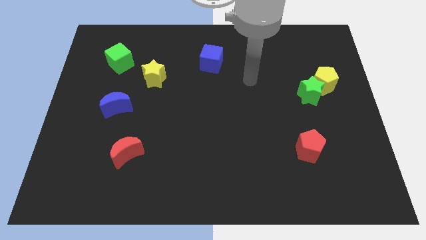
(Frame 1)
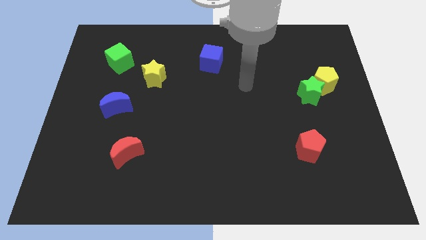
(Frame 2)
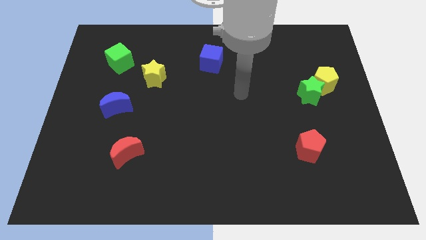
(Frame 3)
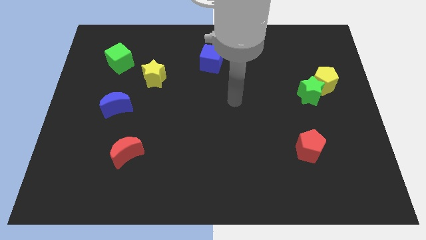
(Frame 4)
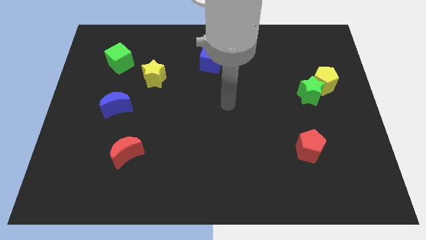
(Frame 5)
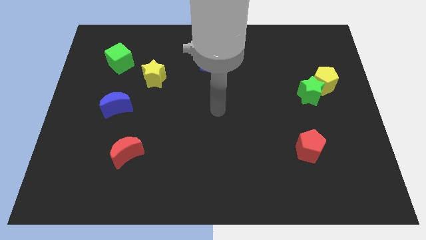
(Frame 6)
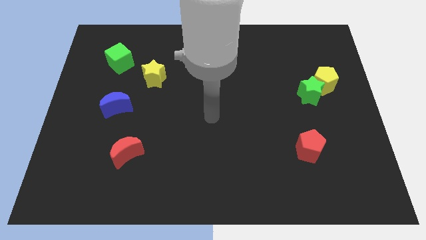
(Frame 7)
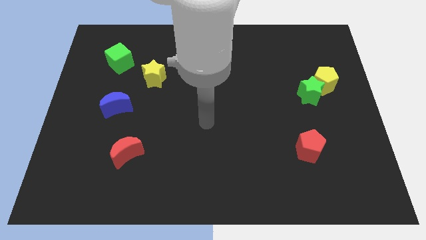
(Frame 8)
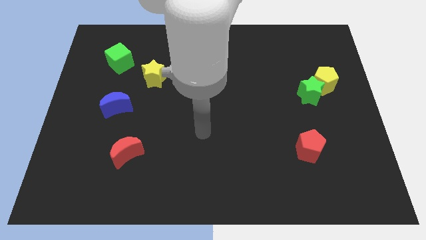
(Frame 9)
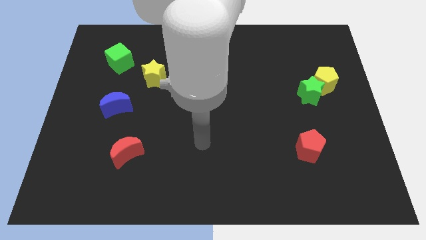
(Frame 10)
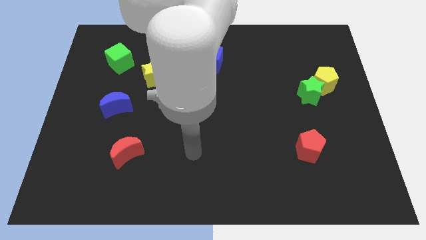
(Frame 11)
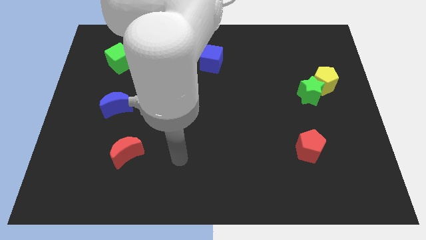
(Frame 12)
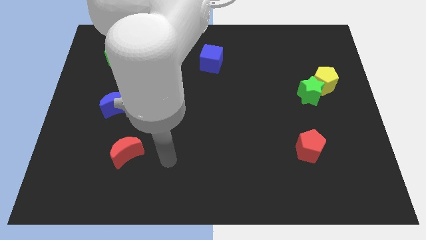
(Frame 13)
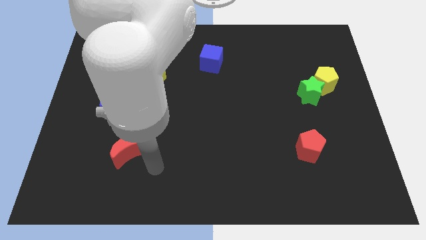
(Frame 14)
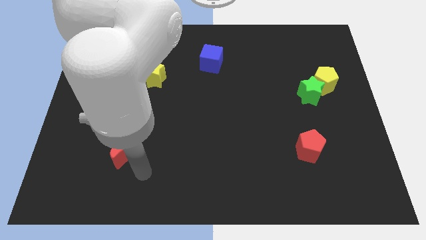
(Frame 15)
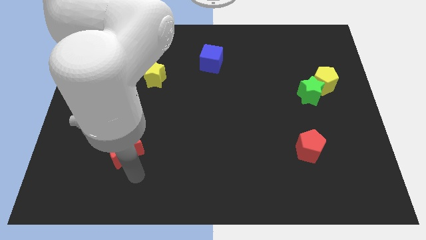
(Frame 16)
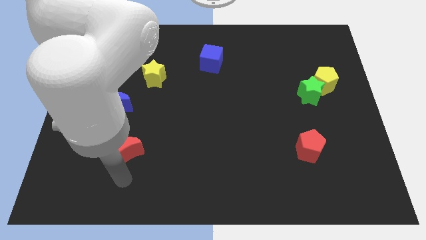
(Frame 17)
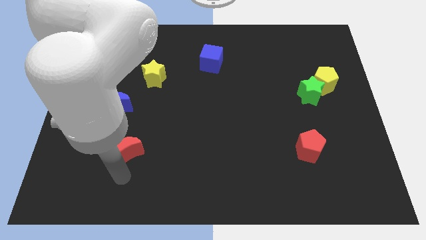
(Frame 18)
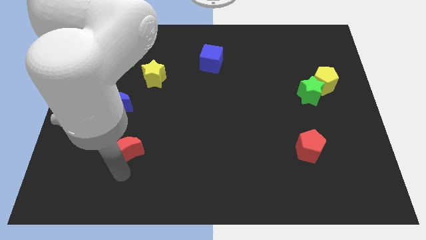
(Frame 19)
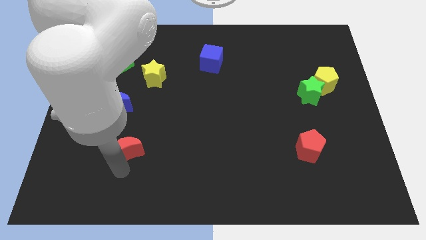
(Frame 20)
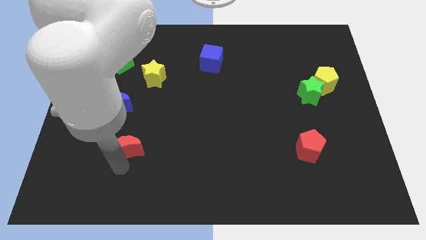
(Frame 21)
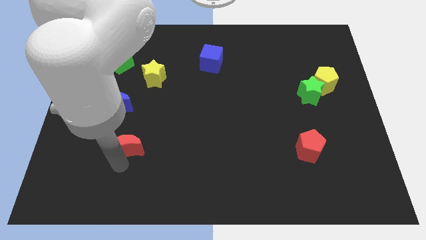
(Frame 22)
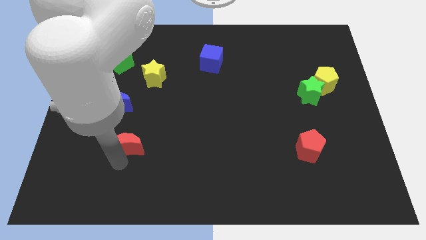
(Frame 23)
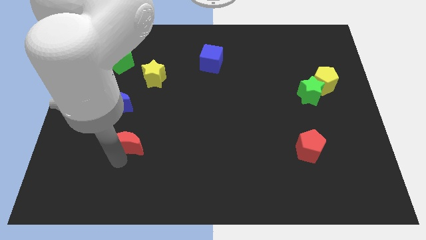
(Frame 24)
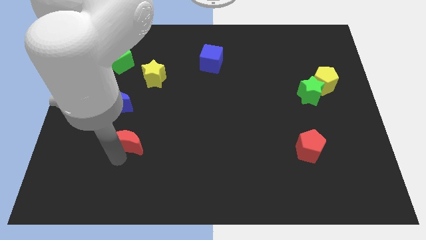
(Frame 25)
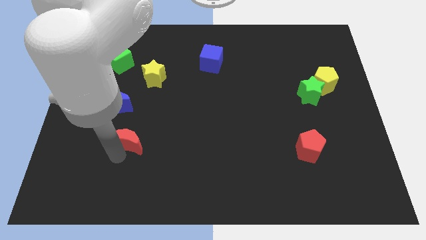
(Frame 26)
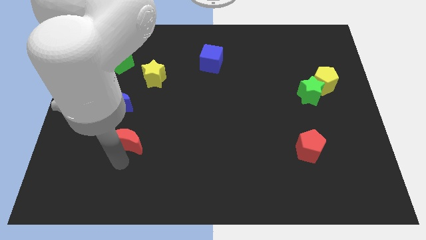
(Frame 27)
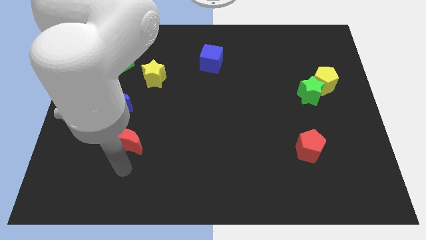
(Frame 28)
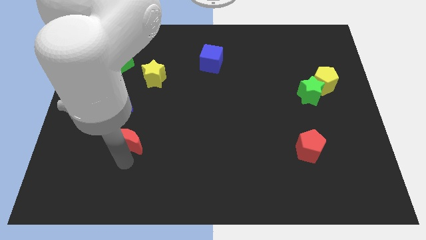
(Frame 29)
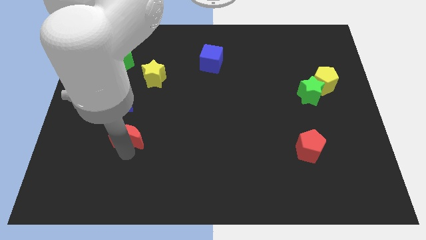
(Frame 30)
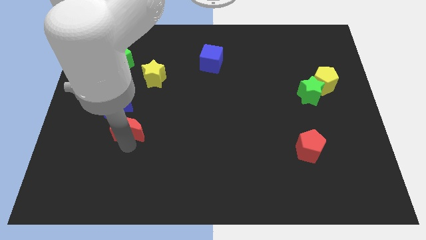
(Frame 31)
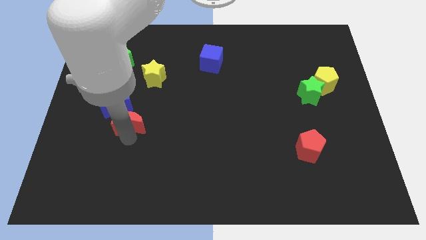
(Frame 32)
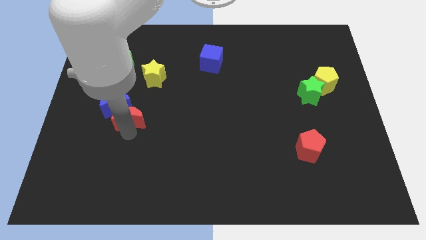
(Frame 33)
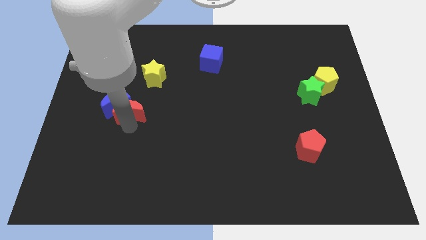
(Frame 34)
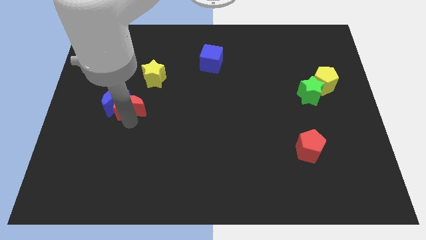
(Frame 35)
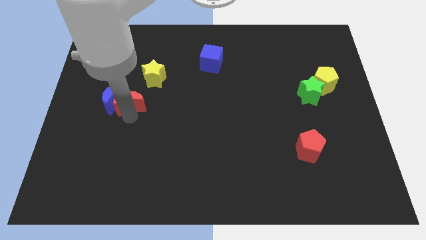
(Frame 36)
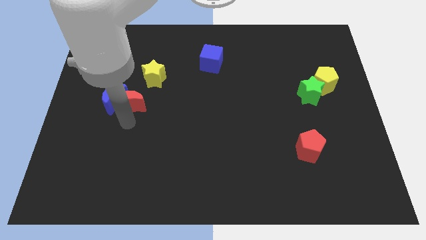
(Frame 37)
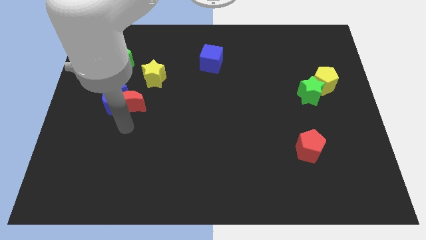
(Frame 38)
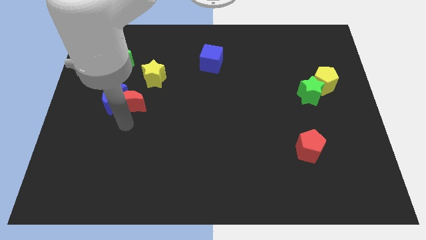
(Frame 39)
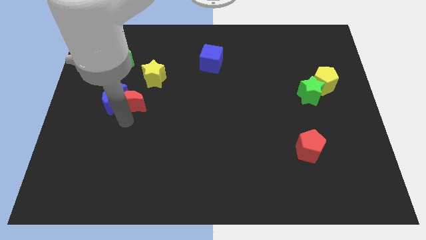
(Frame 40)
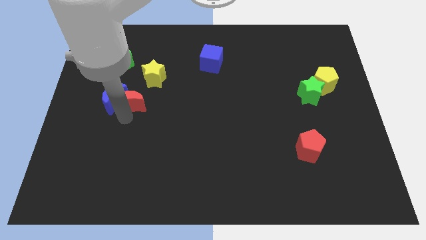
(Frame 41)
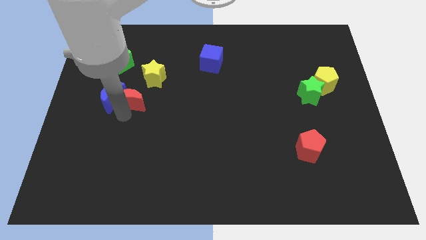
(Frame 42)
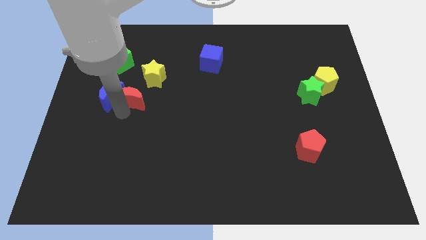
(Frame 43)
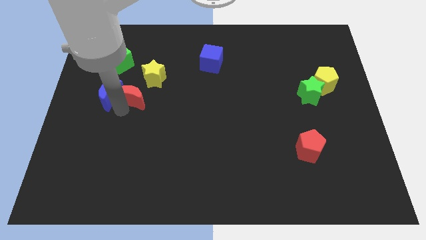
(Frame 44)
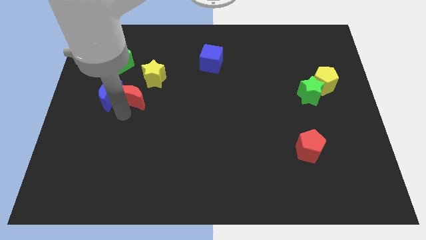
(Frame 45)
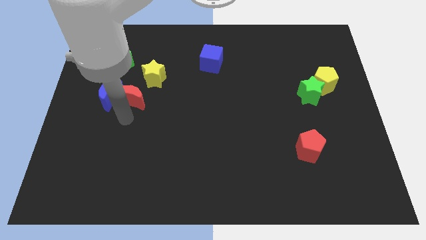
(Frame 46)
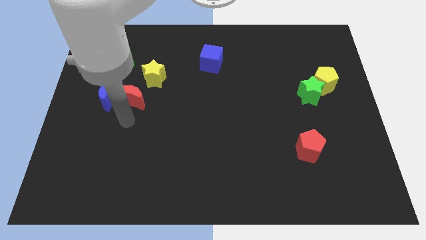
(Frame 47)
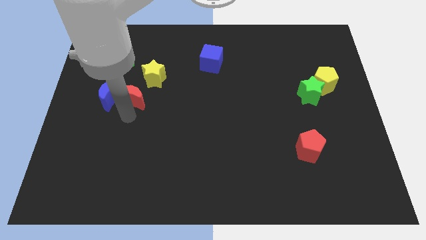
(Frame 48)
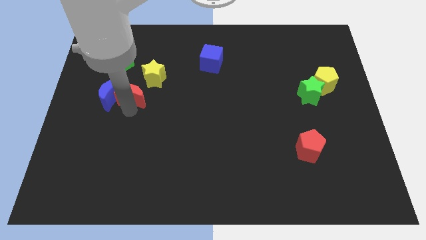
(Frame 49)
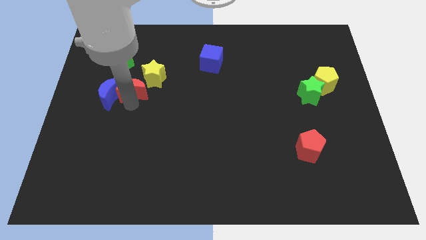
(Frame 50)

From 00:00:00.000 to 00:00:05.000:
push the red moon to the bottom right of the green cube

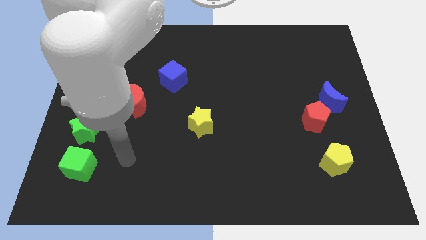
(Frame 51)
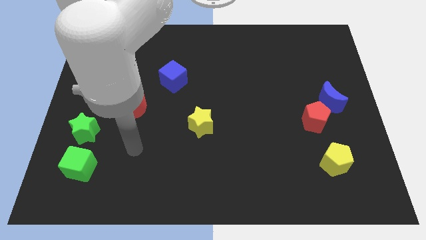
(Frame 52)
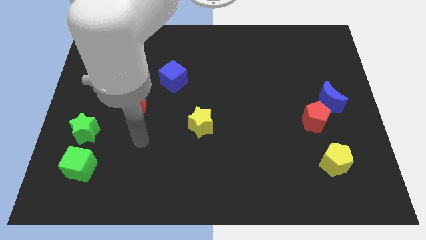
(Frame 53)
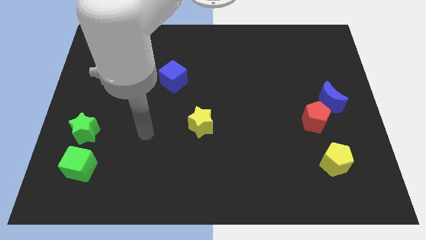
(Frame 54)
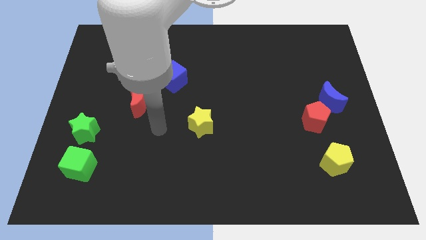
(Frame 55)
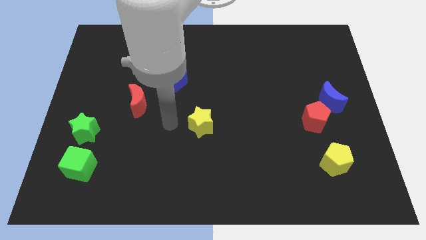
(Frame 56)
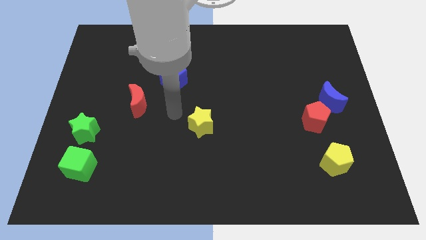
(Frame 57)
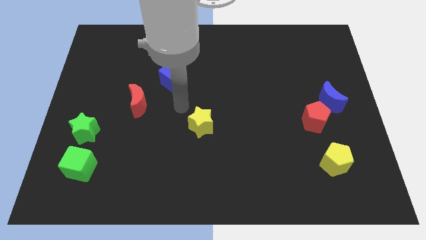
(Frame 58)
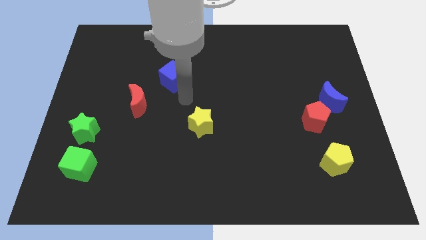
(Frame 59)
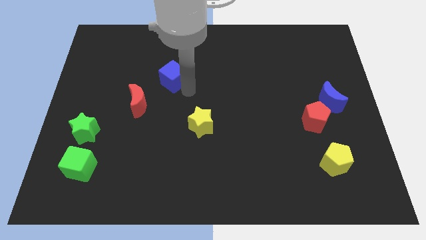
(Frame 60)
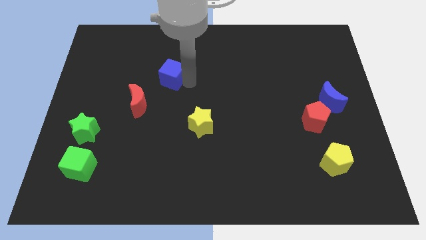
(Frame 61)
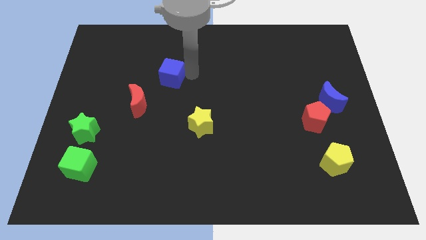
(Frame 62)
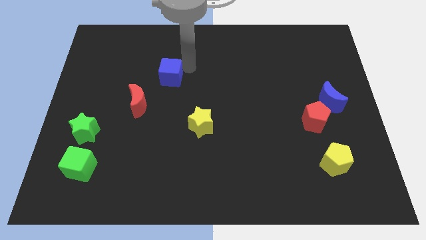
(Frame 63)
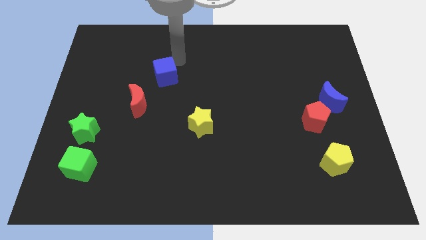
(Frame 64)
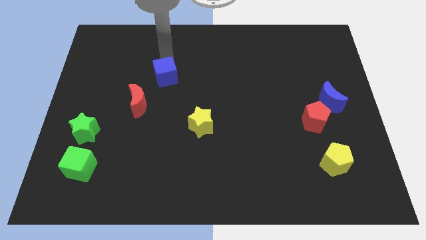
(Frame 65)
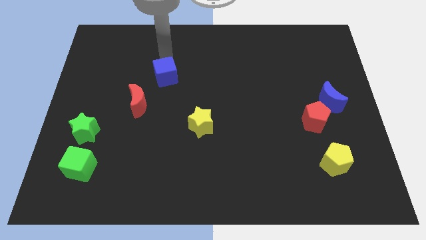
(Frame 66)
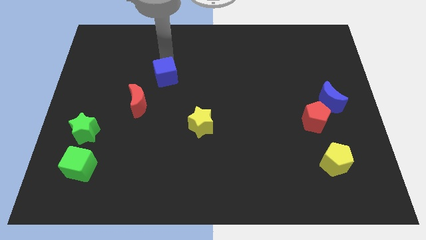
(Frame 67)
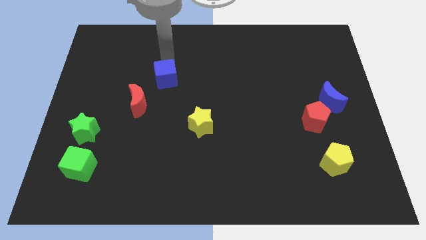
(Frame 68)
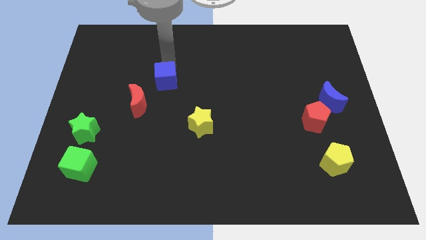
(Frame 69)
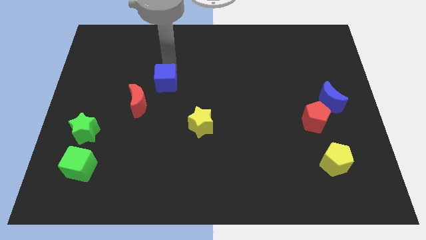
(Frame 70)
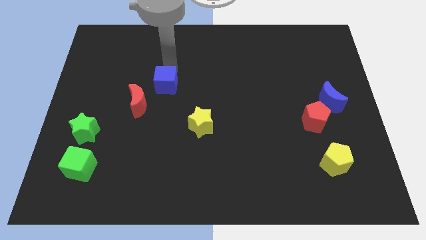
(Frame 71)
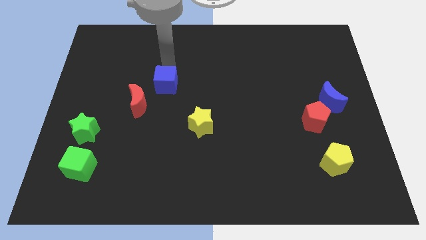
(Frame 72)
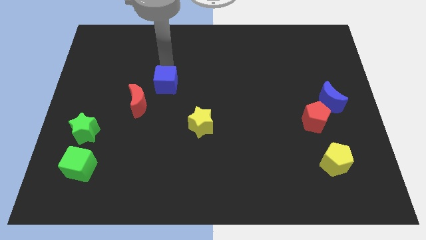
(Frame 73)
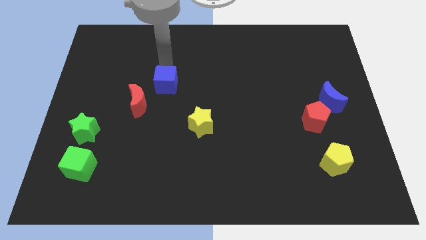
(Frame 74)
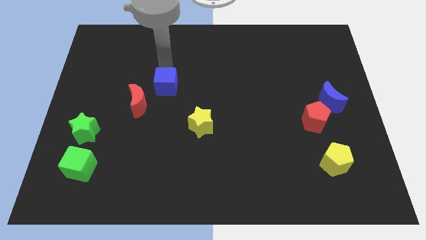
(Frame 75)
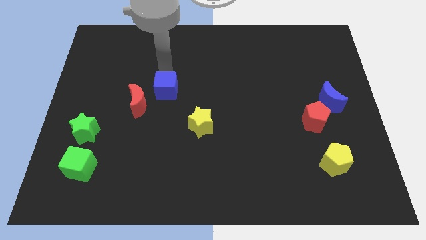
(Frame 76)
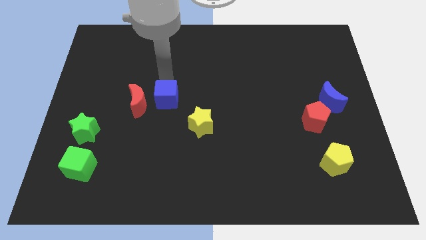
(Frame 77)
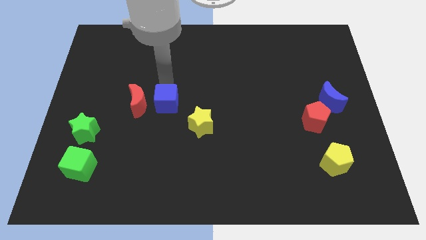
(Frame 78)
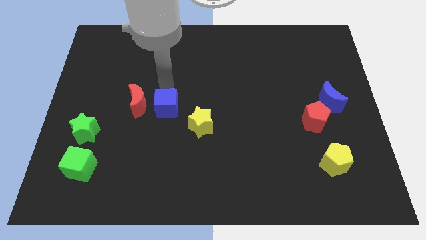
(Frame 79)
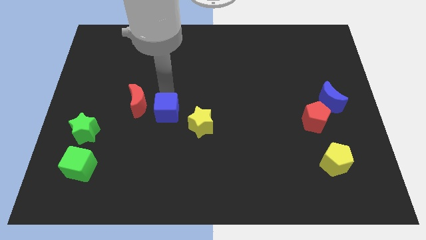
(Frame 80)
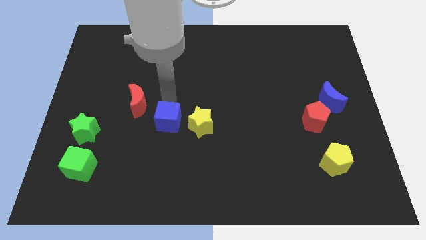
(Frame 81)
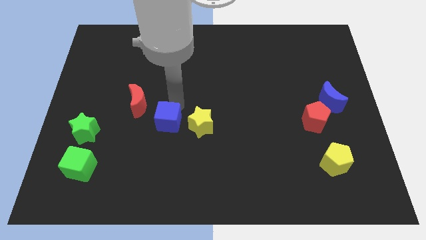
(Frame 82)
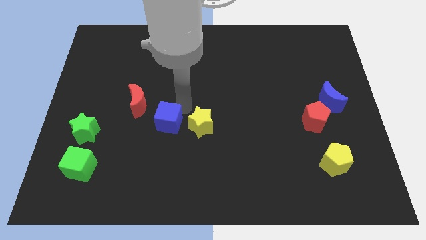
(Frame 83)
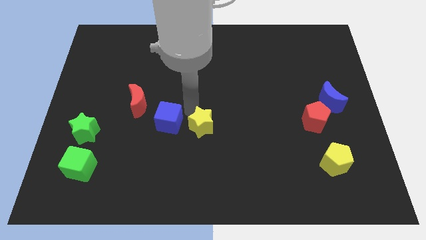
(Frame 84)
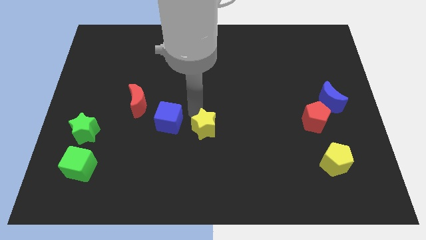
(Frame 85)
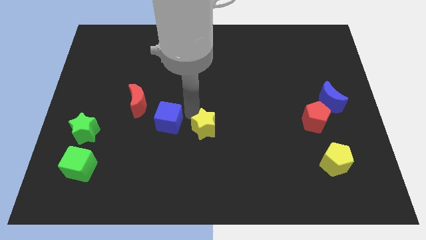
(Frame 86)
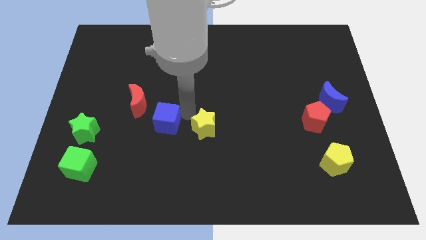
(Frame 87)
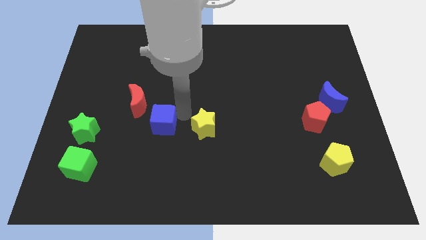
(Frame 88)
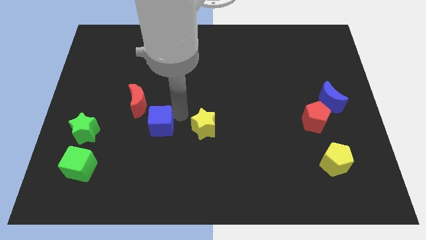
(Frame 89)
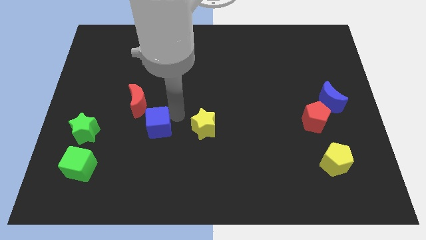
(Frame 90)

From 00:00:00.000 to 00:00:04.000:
move the blue cube to the right of the green star
